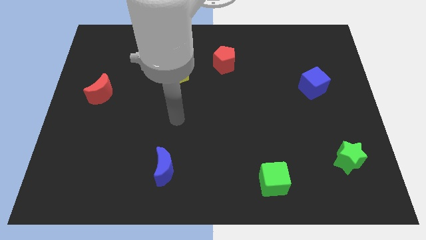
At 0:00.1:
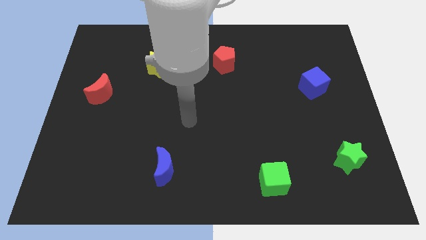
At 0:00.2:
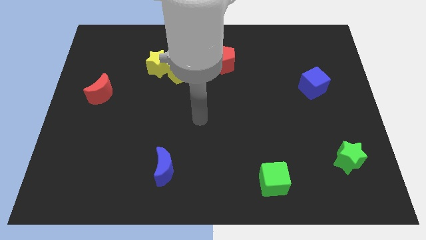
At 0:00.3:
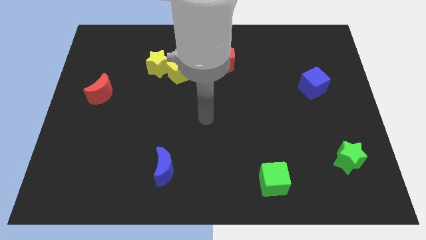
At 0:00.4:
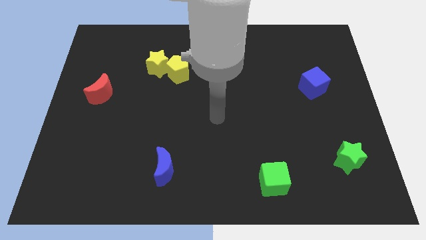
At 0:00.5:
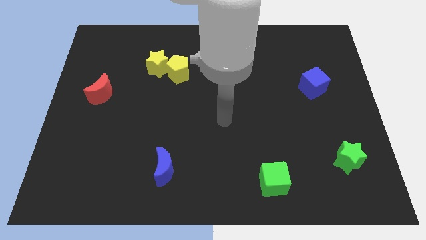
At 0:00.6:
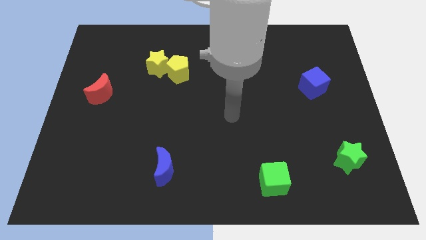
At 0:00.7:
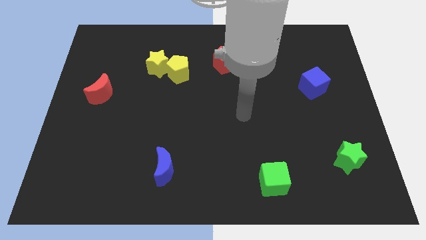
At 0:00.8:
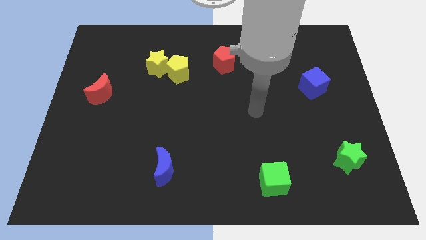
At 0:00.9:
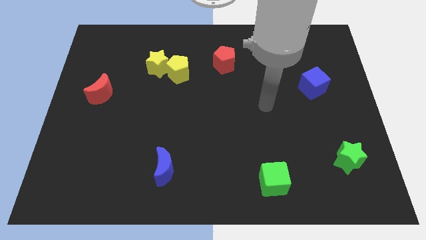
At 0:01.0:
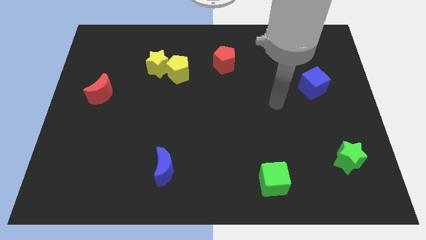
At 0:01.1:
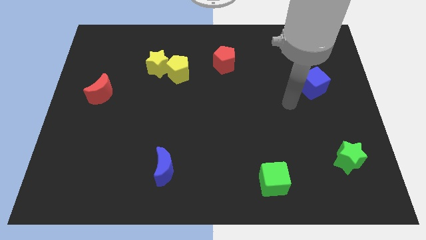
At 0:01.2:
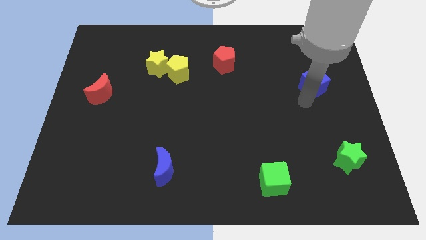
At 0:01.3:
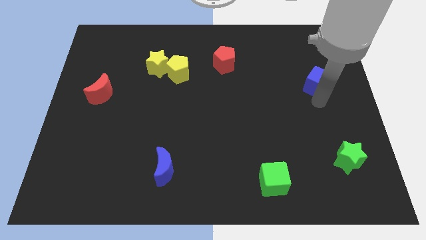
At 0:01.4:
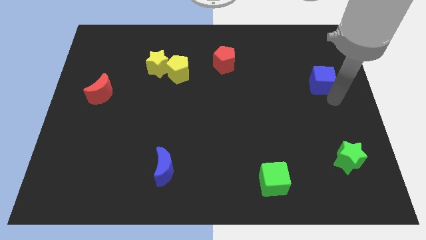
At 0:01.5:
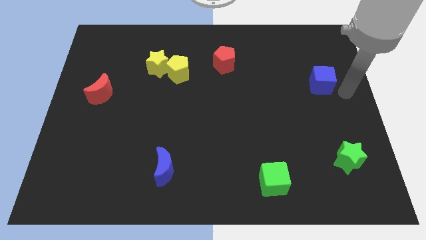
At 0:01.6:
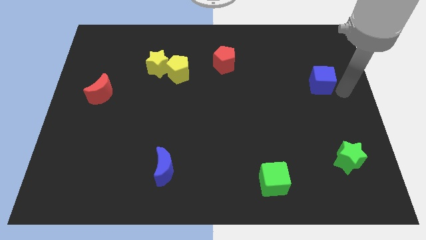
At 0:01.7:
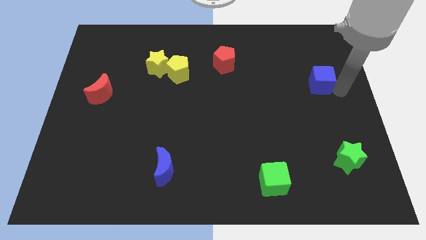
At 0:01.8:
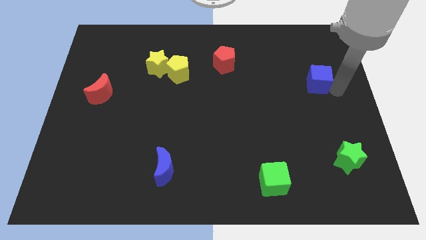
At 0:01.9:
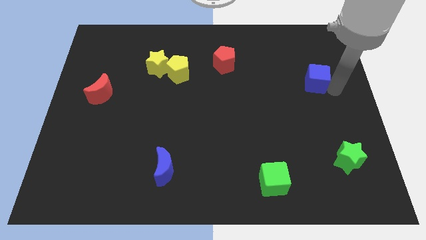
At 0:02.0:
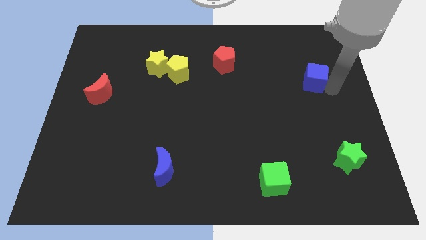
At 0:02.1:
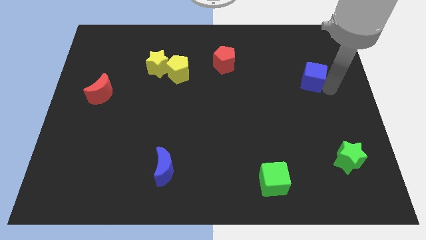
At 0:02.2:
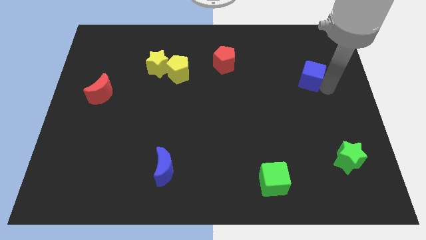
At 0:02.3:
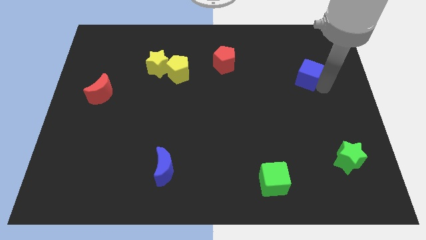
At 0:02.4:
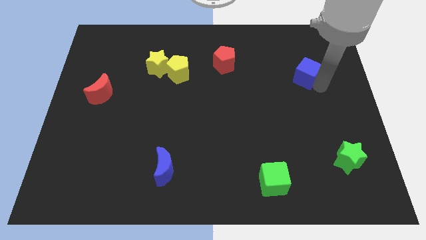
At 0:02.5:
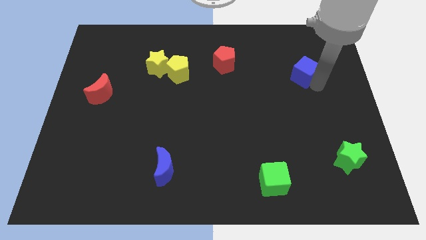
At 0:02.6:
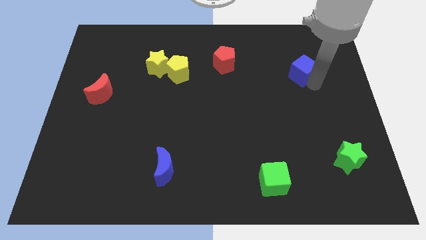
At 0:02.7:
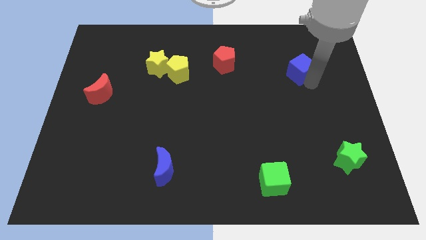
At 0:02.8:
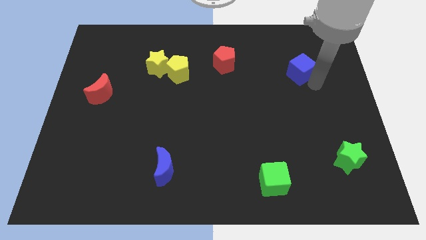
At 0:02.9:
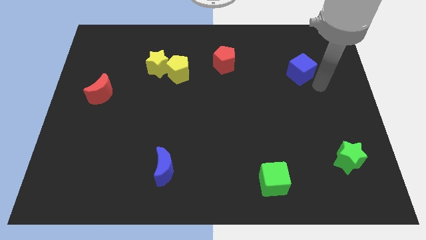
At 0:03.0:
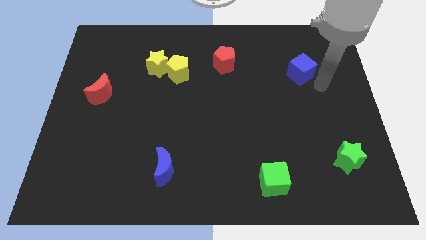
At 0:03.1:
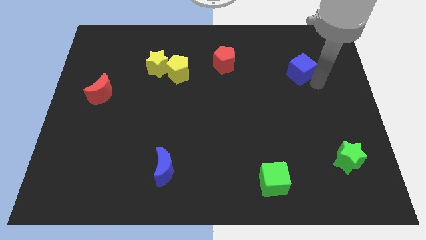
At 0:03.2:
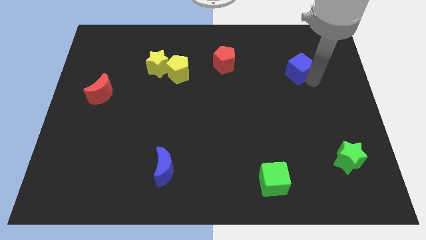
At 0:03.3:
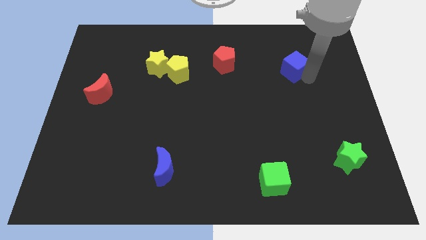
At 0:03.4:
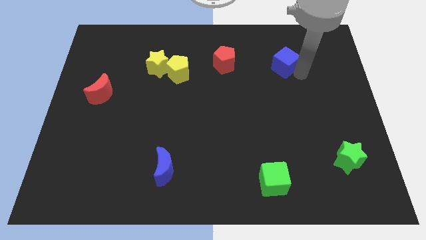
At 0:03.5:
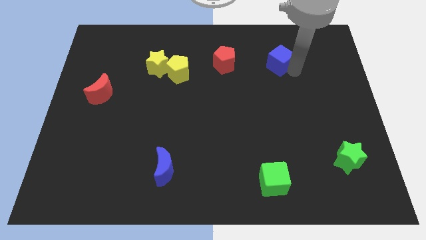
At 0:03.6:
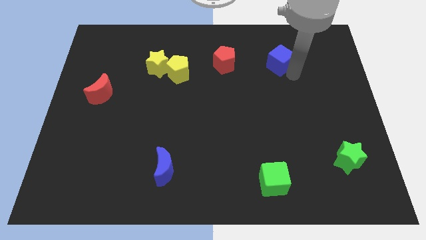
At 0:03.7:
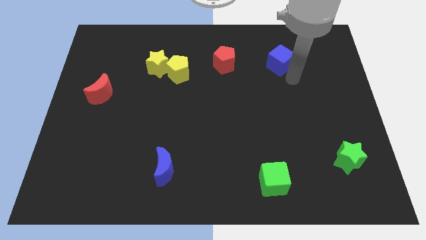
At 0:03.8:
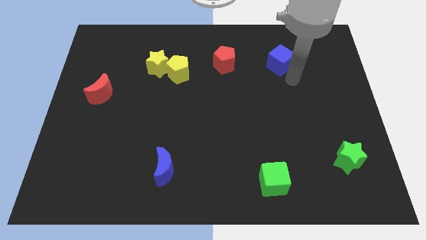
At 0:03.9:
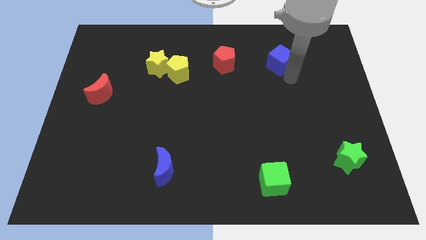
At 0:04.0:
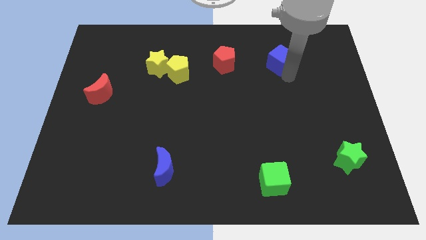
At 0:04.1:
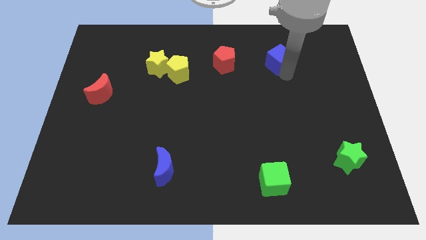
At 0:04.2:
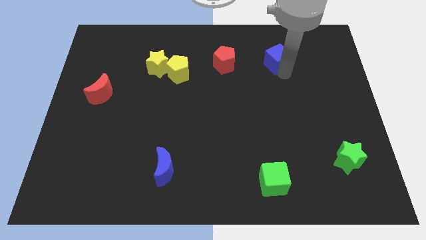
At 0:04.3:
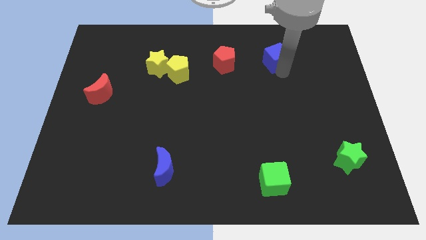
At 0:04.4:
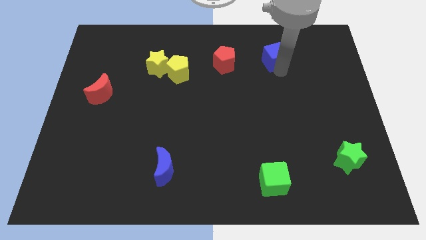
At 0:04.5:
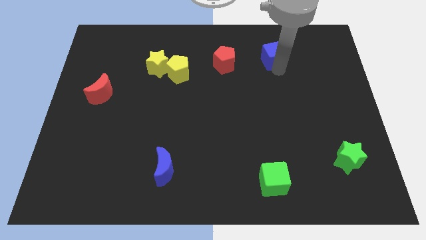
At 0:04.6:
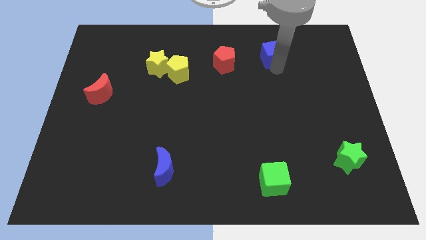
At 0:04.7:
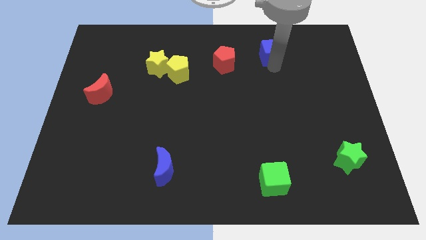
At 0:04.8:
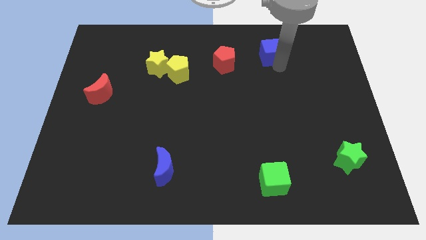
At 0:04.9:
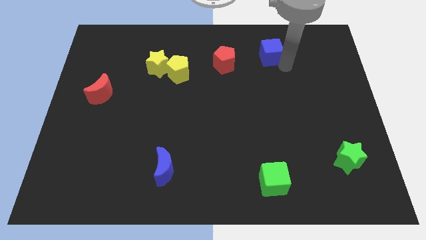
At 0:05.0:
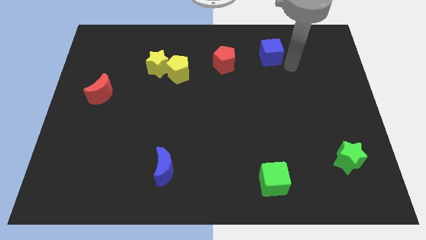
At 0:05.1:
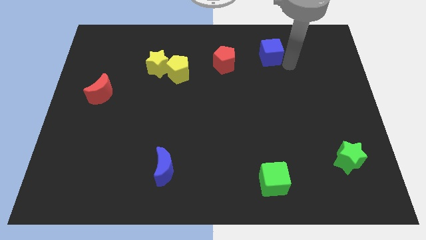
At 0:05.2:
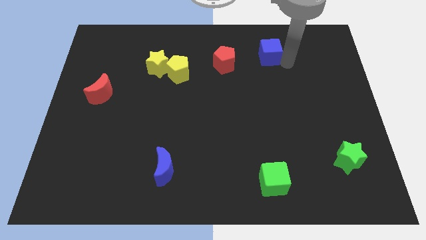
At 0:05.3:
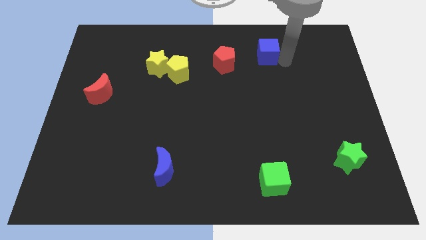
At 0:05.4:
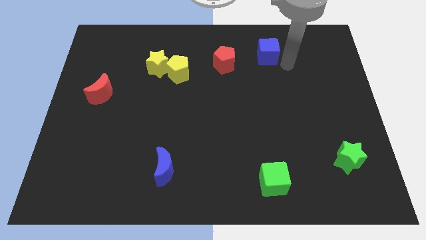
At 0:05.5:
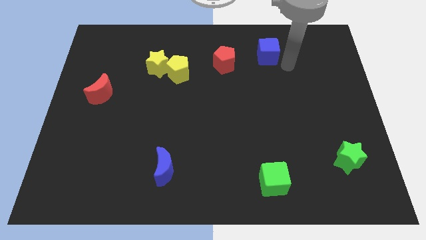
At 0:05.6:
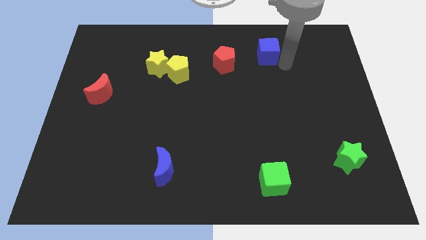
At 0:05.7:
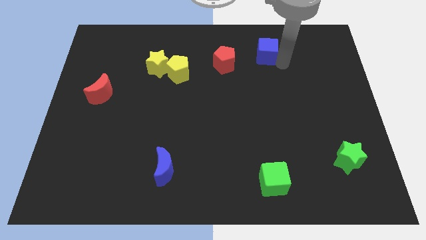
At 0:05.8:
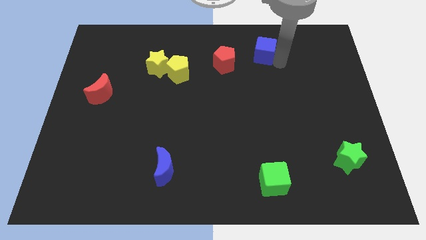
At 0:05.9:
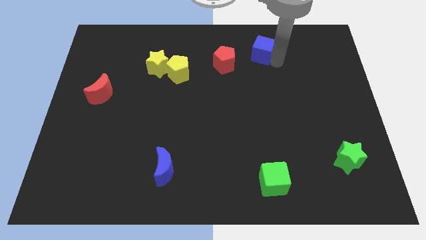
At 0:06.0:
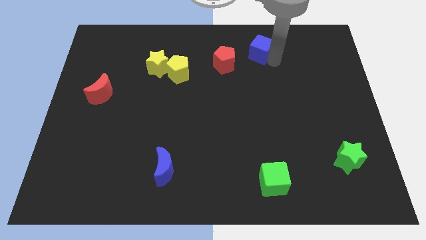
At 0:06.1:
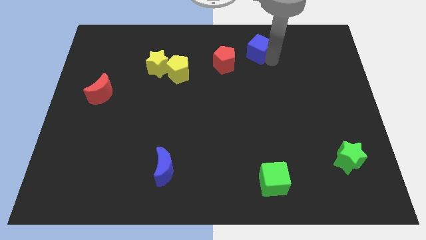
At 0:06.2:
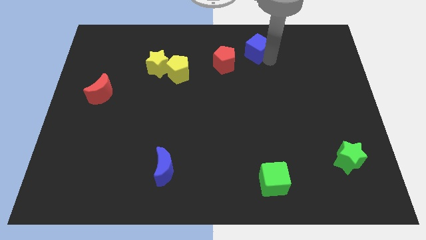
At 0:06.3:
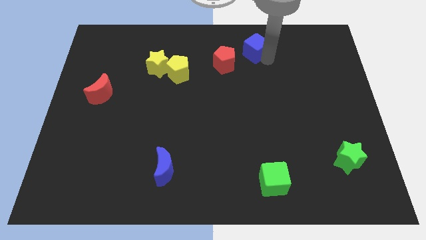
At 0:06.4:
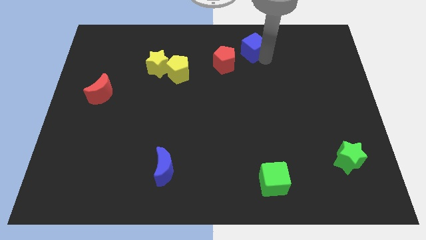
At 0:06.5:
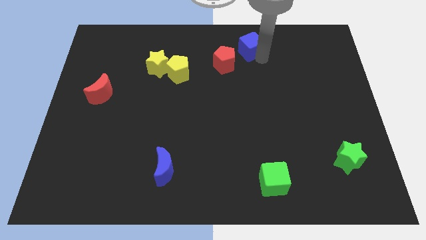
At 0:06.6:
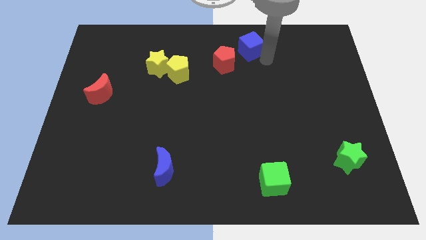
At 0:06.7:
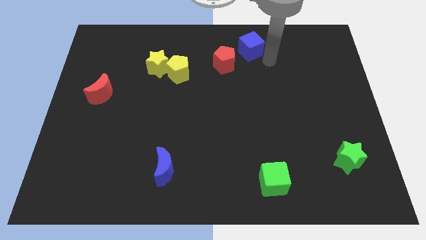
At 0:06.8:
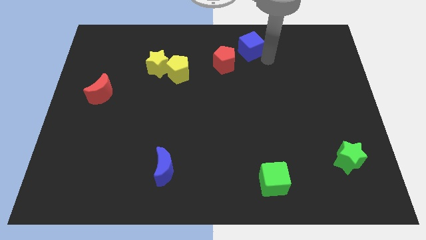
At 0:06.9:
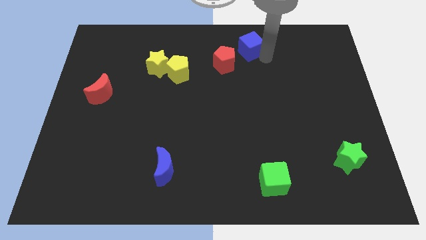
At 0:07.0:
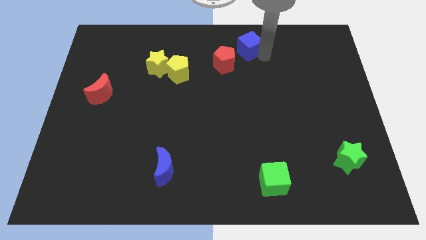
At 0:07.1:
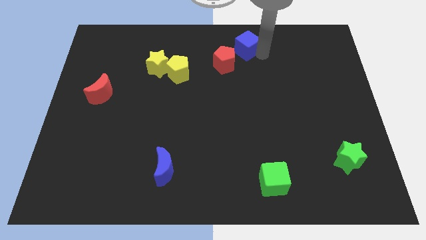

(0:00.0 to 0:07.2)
move the blue cube to the top side
